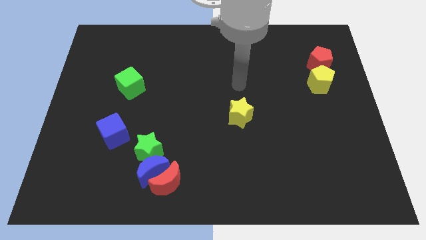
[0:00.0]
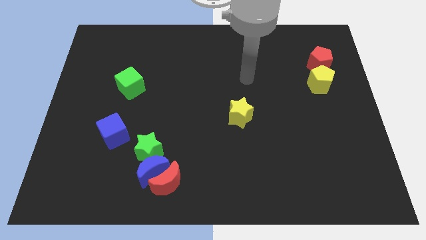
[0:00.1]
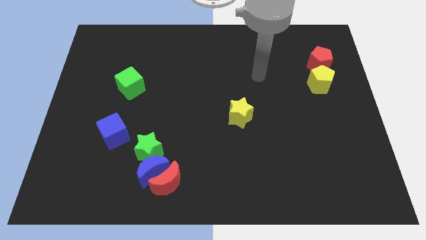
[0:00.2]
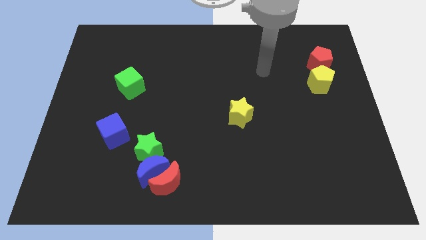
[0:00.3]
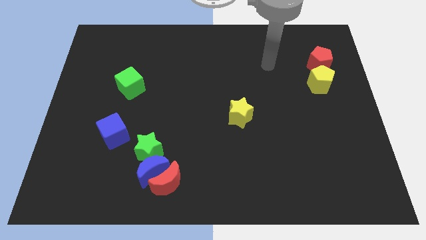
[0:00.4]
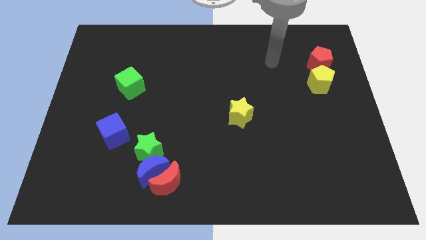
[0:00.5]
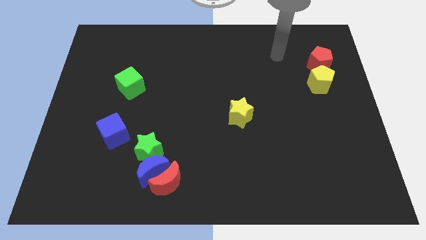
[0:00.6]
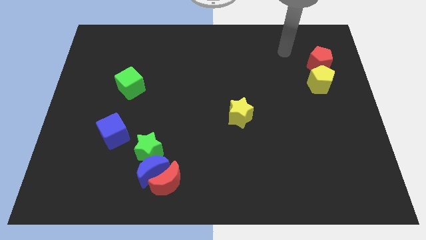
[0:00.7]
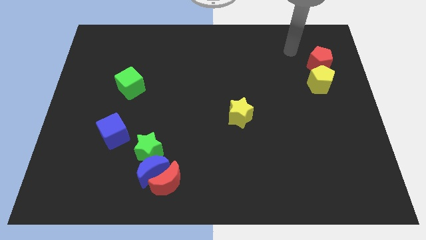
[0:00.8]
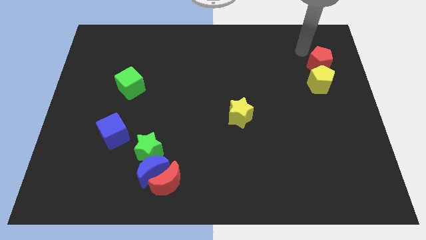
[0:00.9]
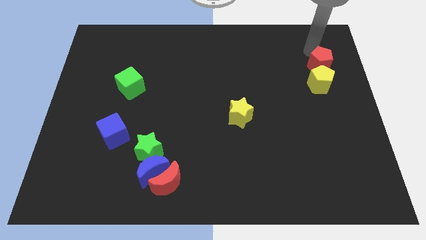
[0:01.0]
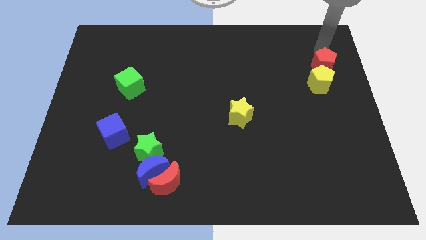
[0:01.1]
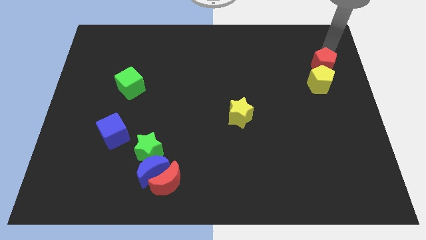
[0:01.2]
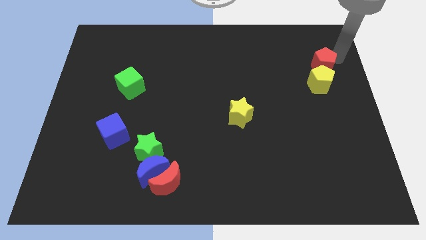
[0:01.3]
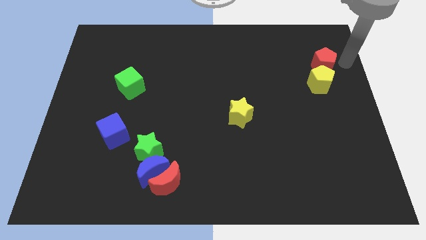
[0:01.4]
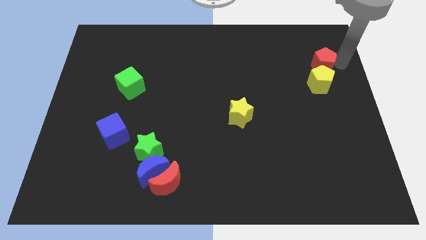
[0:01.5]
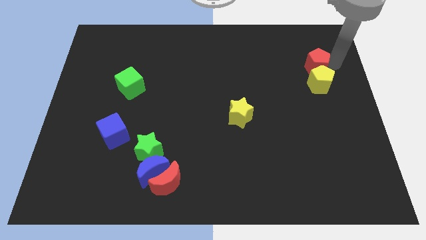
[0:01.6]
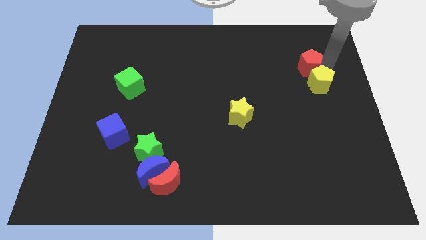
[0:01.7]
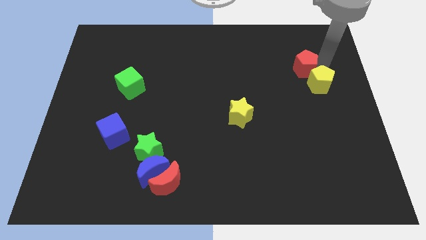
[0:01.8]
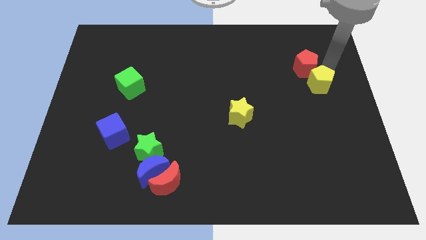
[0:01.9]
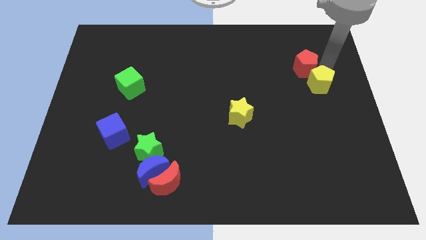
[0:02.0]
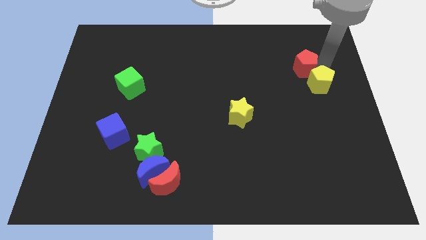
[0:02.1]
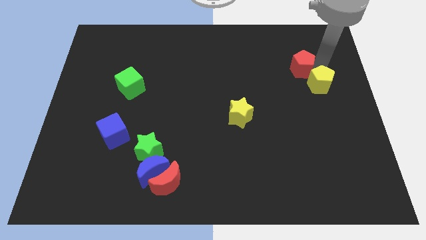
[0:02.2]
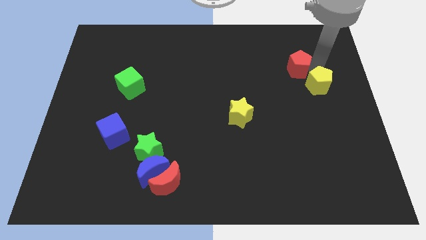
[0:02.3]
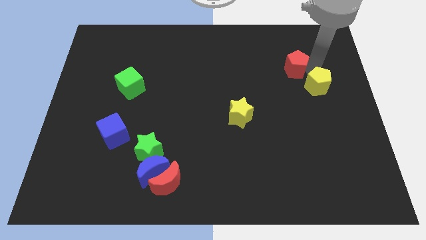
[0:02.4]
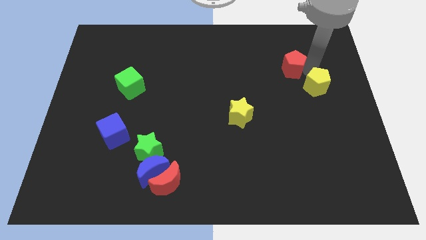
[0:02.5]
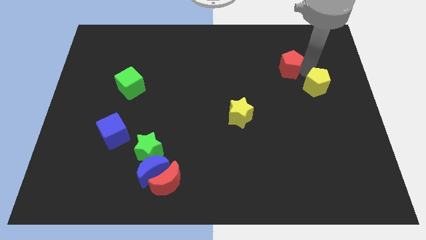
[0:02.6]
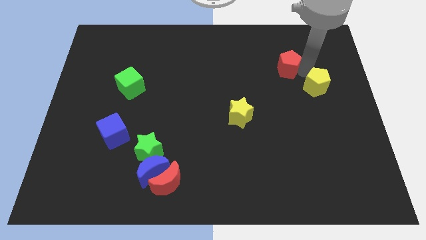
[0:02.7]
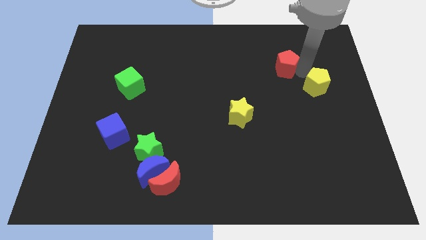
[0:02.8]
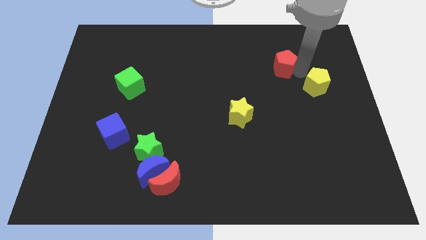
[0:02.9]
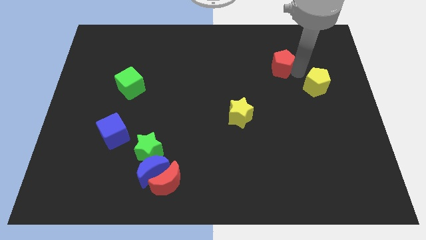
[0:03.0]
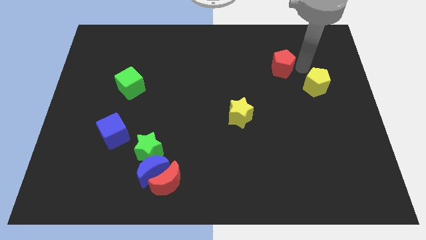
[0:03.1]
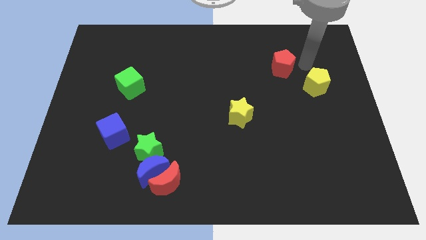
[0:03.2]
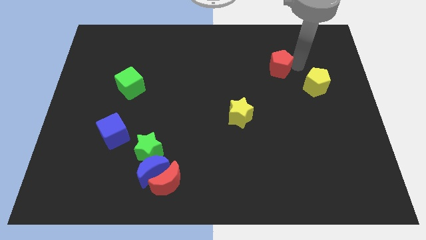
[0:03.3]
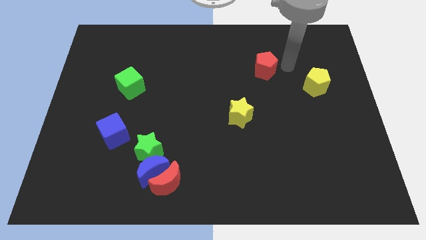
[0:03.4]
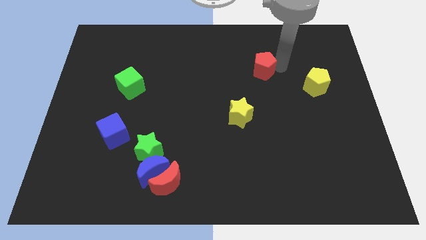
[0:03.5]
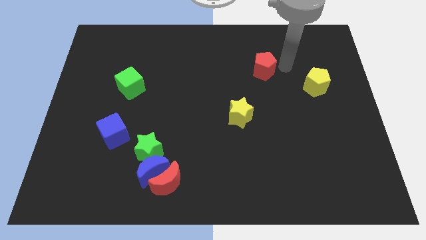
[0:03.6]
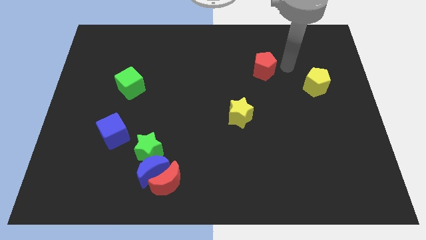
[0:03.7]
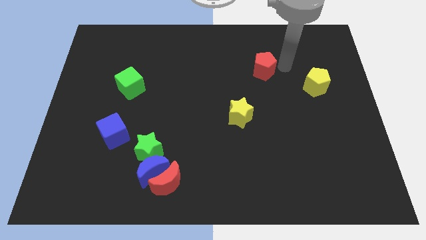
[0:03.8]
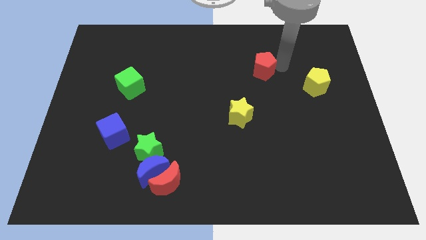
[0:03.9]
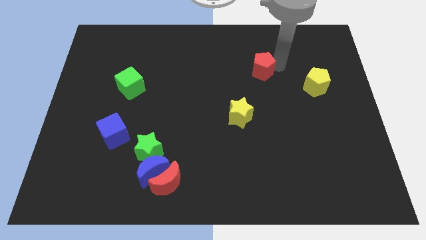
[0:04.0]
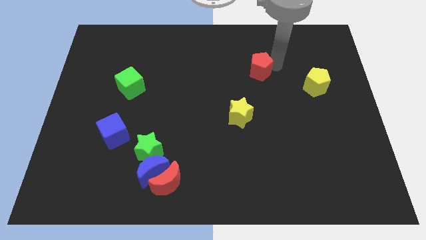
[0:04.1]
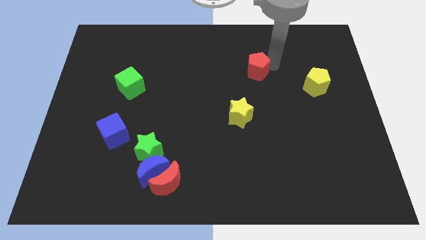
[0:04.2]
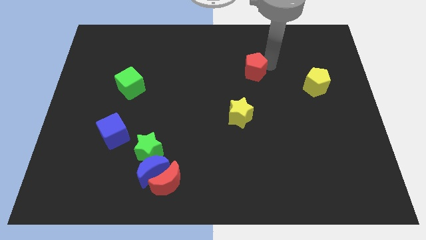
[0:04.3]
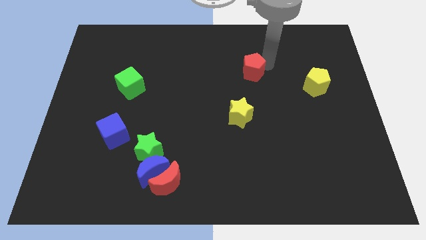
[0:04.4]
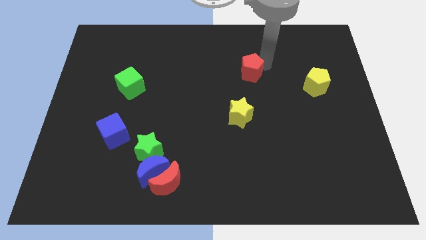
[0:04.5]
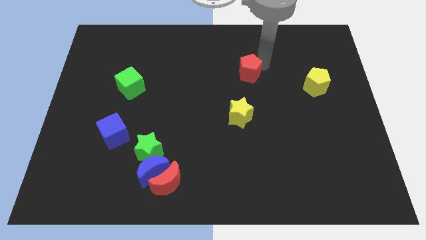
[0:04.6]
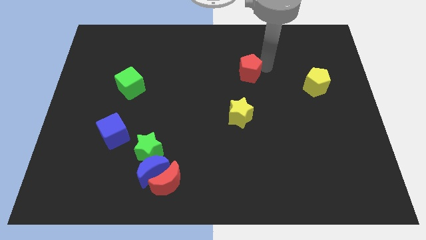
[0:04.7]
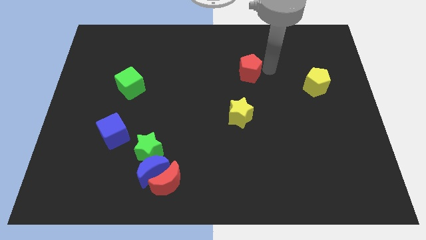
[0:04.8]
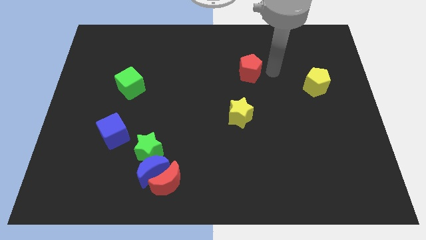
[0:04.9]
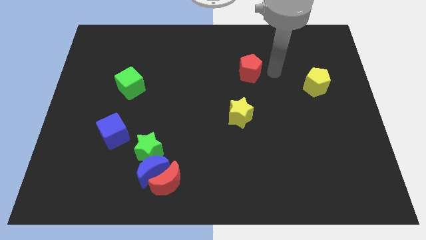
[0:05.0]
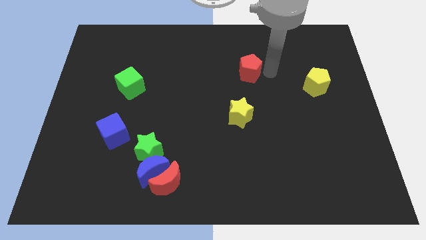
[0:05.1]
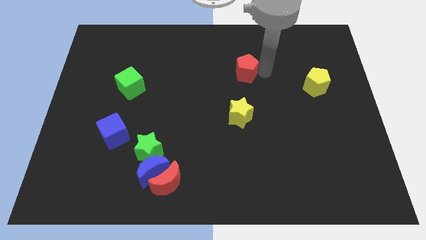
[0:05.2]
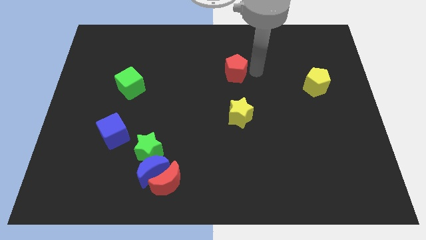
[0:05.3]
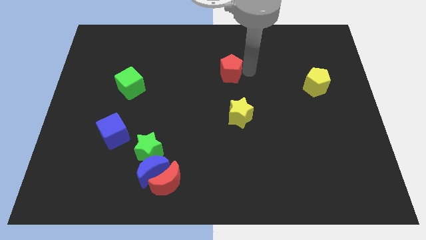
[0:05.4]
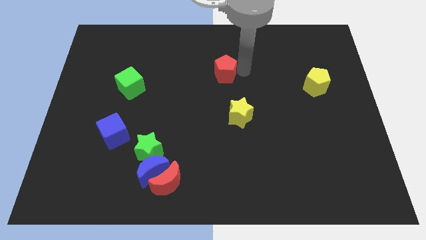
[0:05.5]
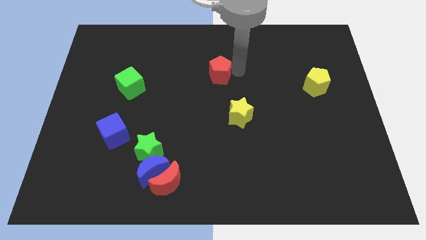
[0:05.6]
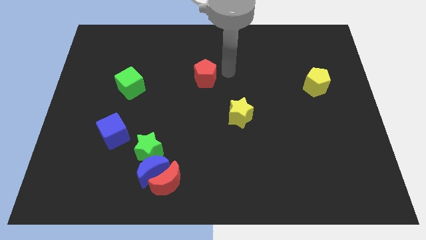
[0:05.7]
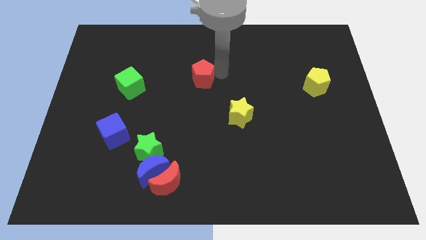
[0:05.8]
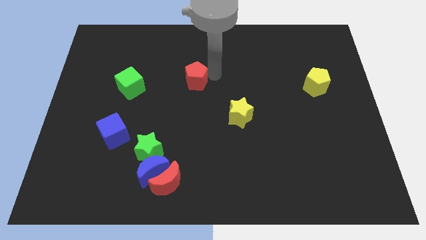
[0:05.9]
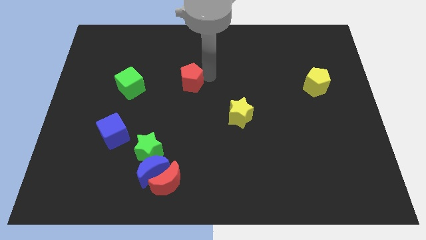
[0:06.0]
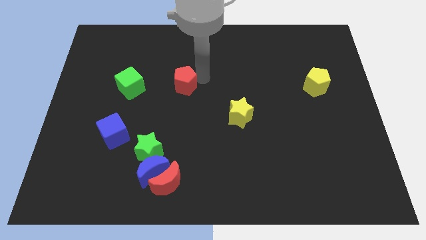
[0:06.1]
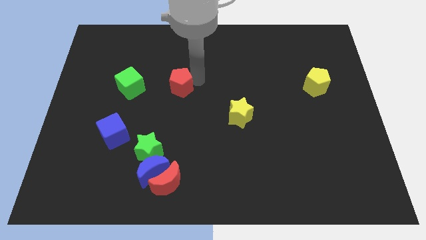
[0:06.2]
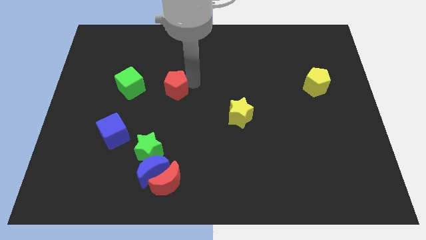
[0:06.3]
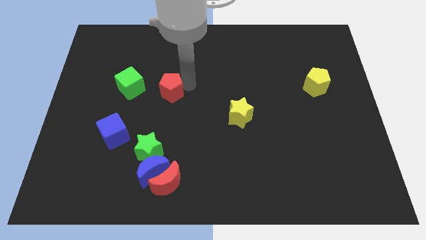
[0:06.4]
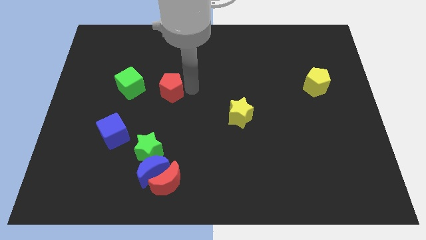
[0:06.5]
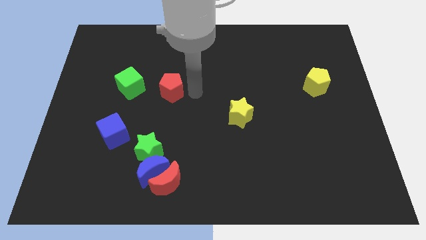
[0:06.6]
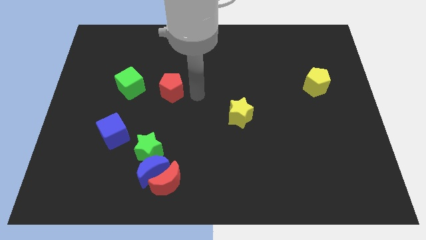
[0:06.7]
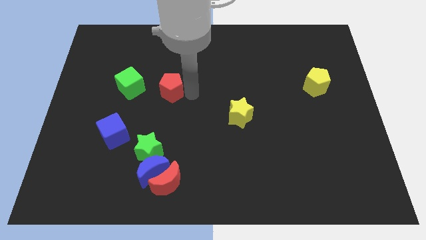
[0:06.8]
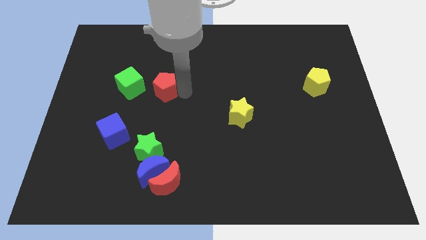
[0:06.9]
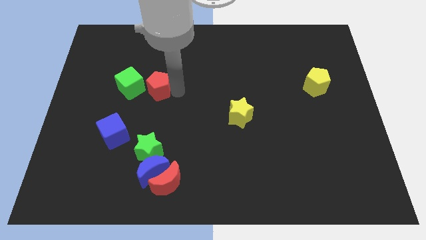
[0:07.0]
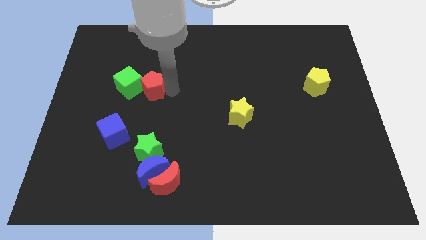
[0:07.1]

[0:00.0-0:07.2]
push the red pentagon to the green cube
